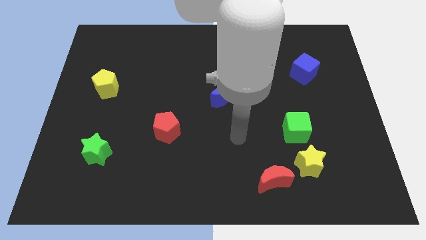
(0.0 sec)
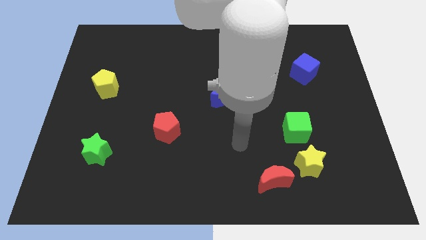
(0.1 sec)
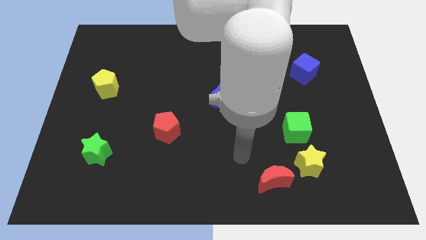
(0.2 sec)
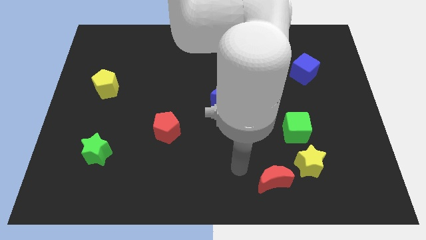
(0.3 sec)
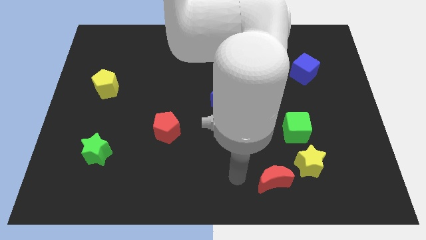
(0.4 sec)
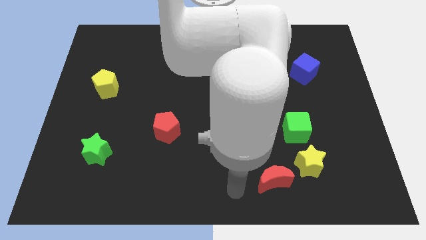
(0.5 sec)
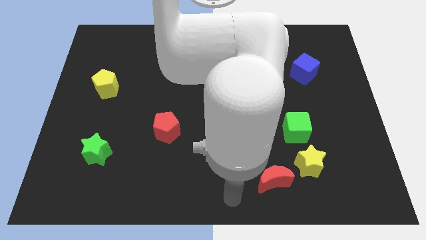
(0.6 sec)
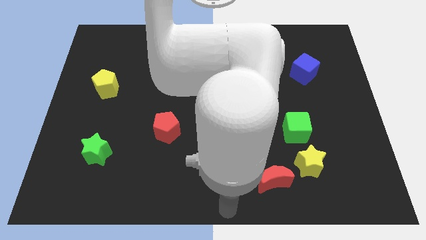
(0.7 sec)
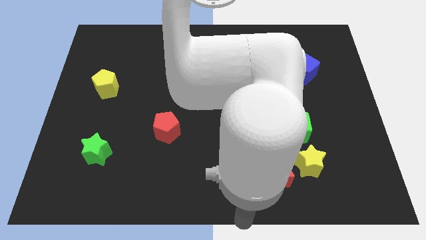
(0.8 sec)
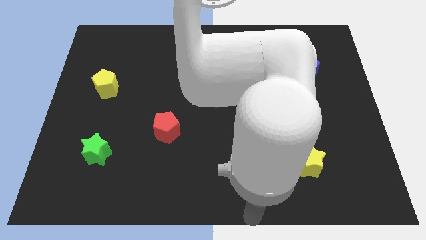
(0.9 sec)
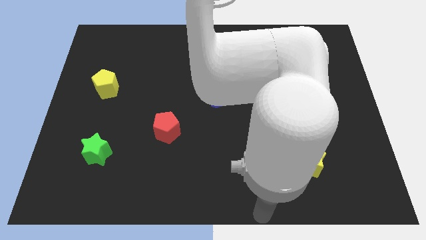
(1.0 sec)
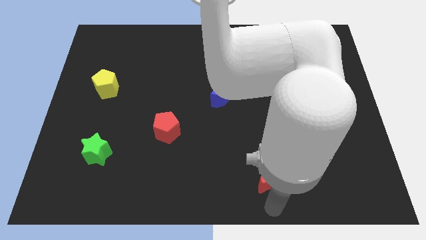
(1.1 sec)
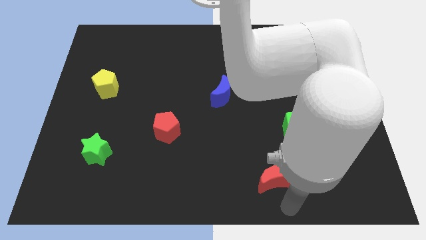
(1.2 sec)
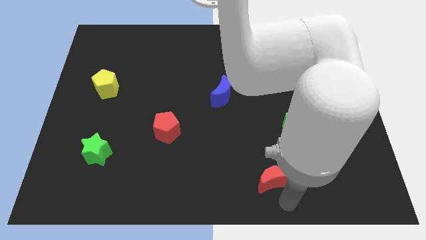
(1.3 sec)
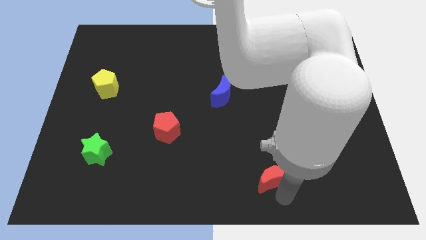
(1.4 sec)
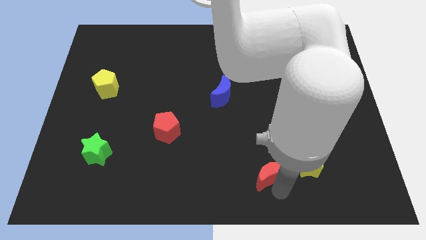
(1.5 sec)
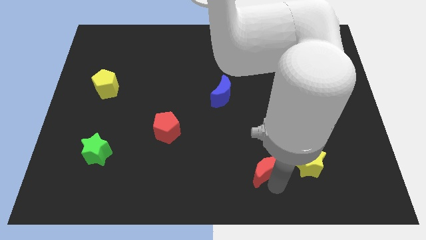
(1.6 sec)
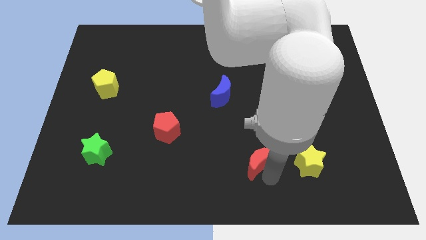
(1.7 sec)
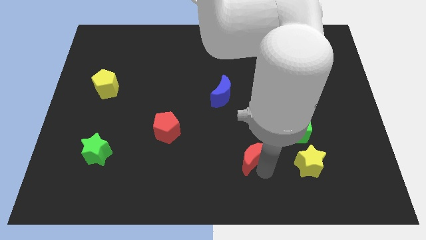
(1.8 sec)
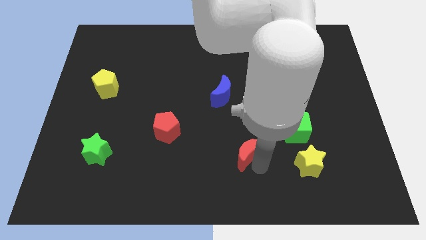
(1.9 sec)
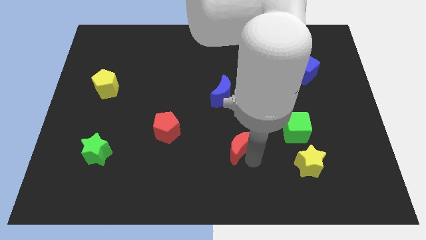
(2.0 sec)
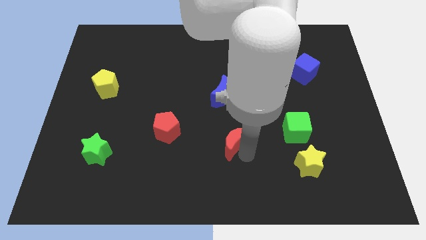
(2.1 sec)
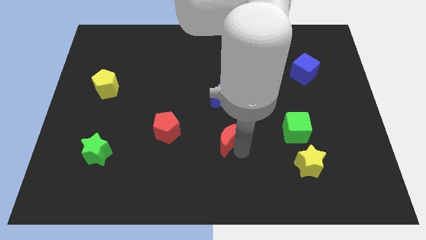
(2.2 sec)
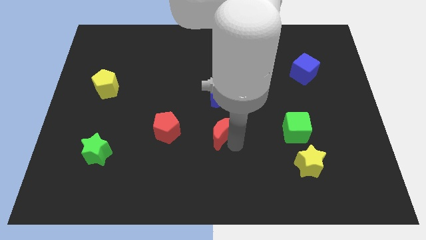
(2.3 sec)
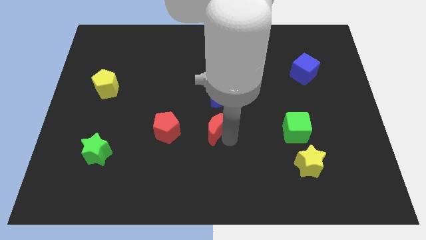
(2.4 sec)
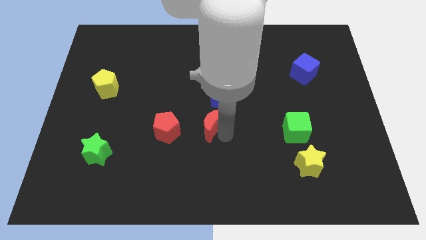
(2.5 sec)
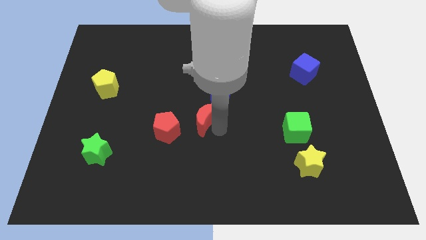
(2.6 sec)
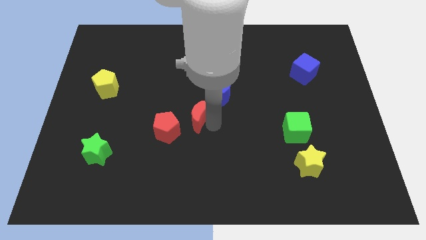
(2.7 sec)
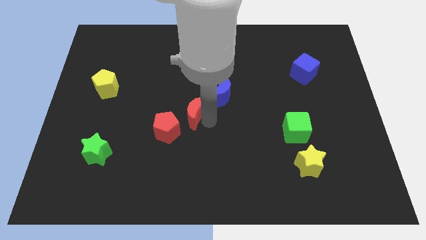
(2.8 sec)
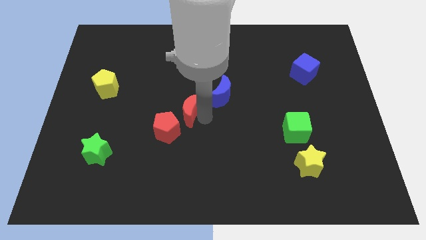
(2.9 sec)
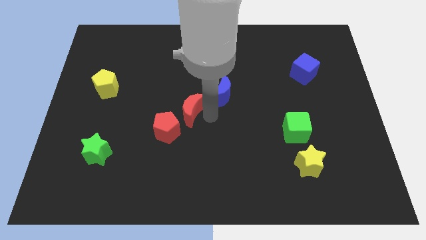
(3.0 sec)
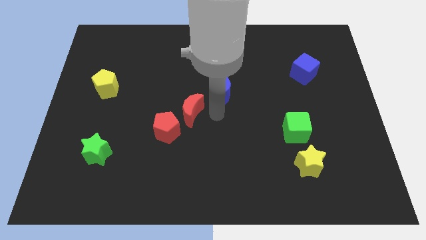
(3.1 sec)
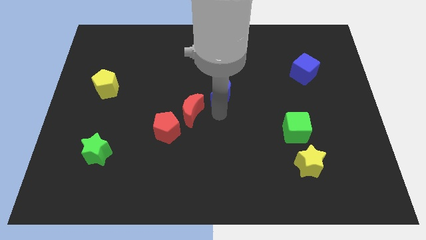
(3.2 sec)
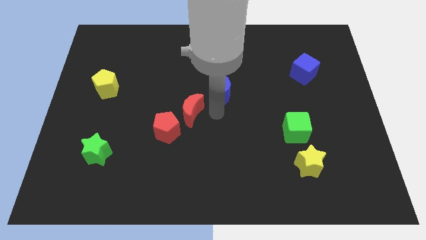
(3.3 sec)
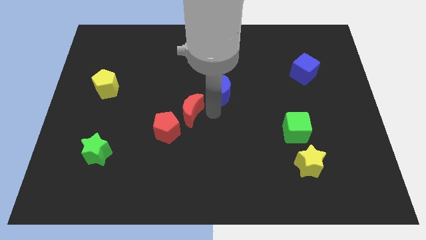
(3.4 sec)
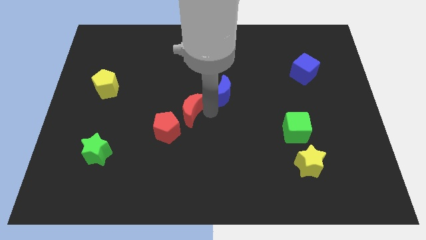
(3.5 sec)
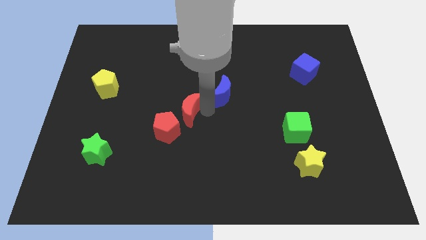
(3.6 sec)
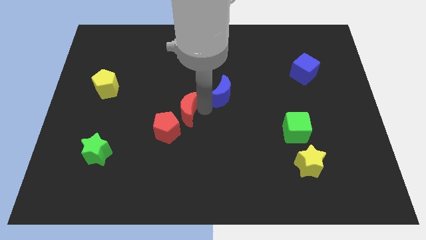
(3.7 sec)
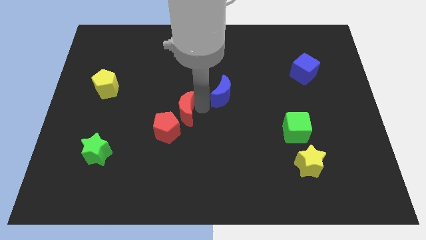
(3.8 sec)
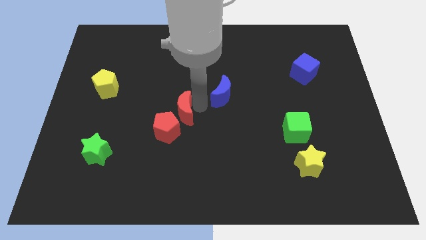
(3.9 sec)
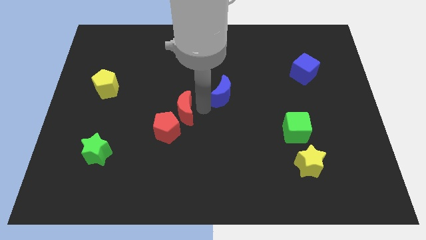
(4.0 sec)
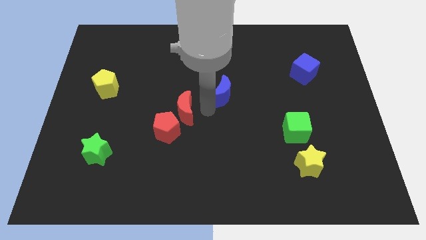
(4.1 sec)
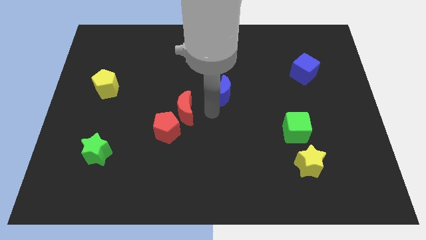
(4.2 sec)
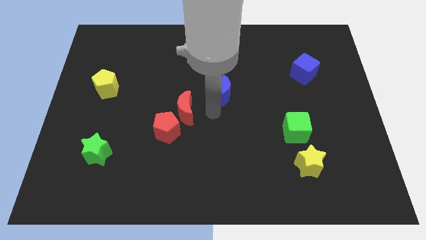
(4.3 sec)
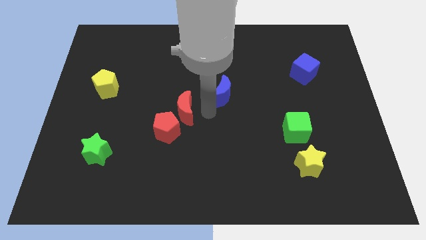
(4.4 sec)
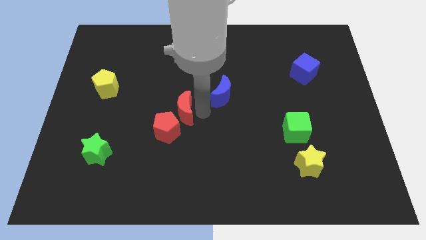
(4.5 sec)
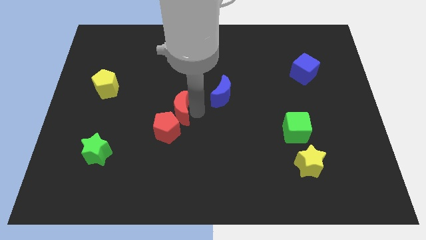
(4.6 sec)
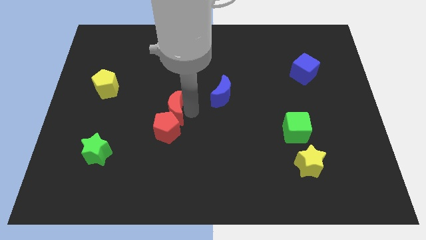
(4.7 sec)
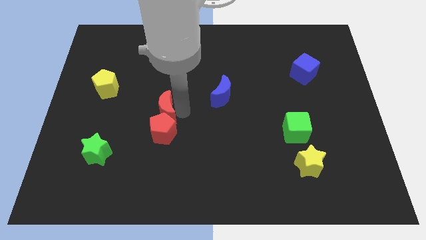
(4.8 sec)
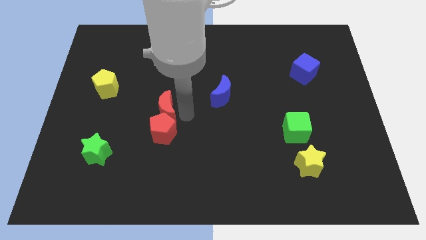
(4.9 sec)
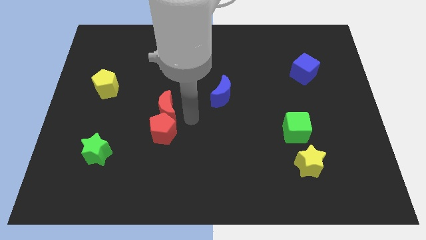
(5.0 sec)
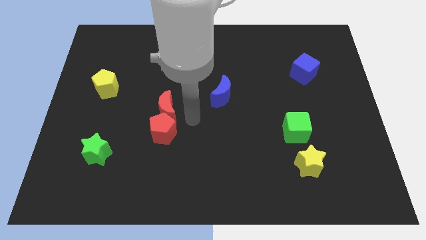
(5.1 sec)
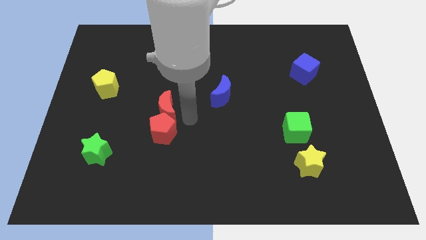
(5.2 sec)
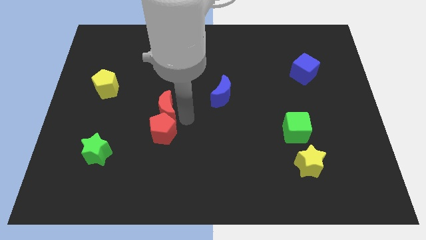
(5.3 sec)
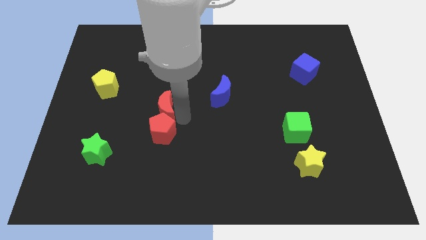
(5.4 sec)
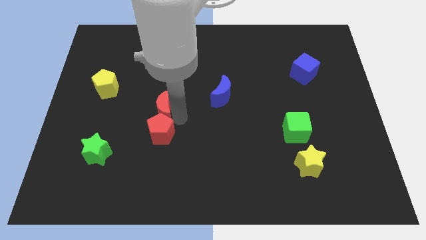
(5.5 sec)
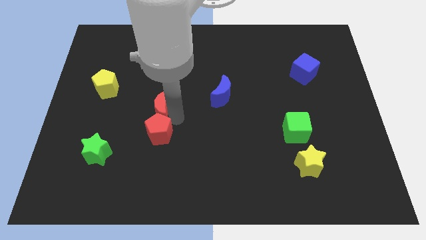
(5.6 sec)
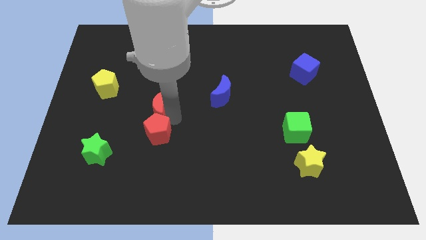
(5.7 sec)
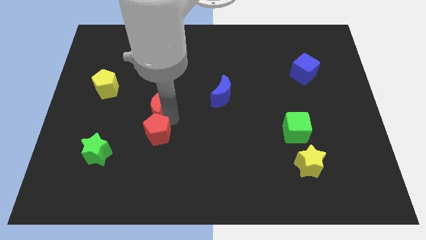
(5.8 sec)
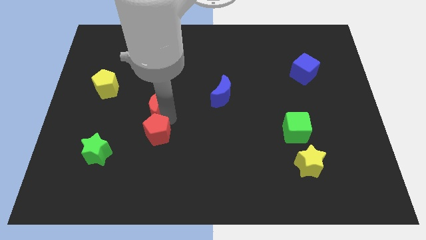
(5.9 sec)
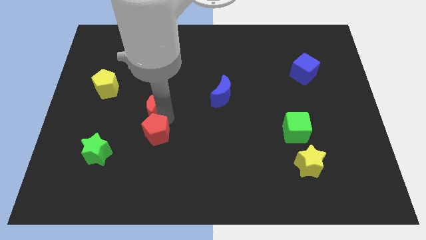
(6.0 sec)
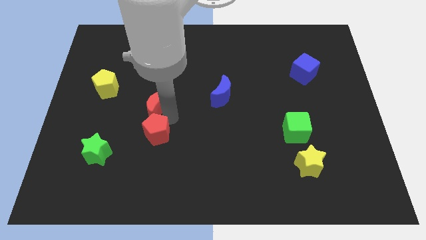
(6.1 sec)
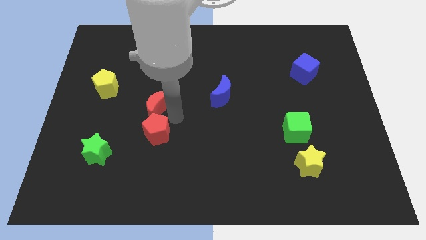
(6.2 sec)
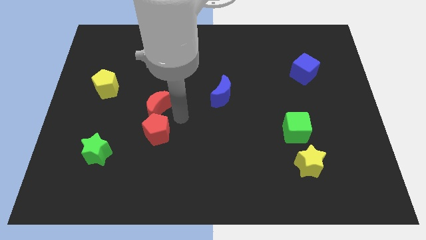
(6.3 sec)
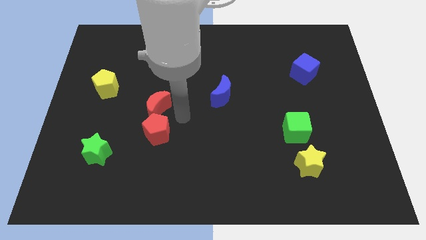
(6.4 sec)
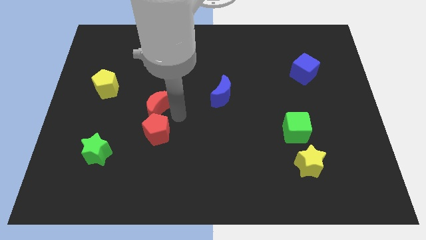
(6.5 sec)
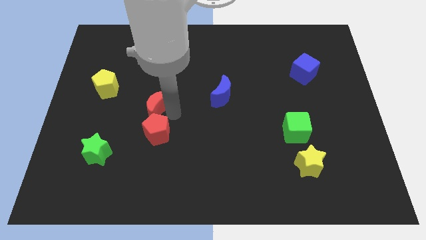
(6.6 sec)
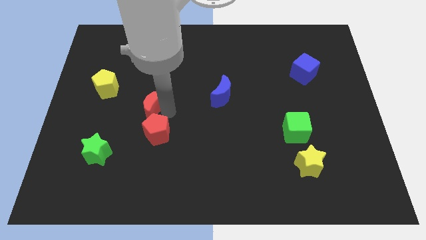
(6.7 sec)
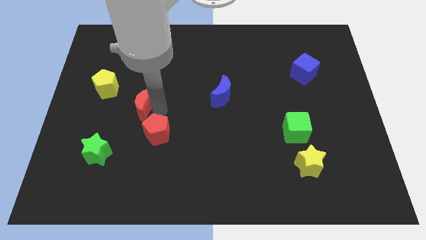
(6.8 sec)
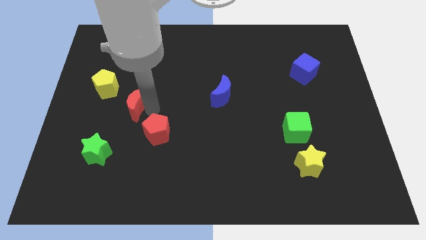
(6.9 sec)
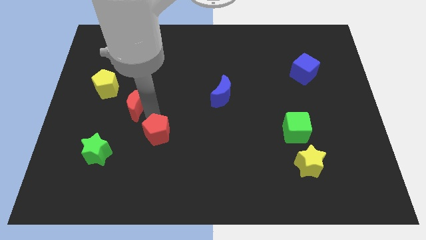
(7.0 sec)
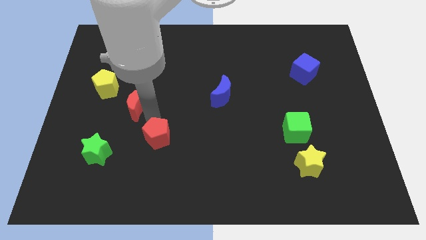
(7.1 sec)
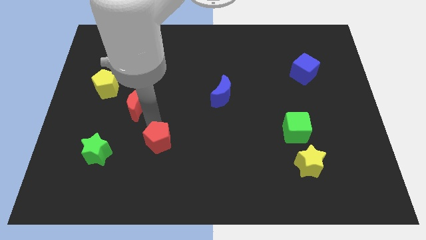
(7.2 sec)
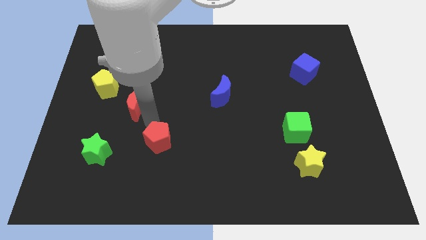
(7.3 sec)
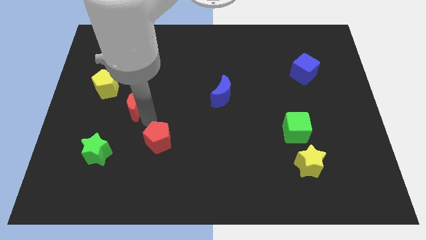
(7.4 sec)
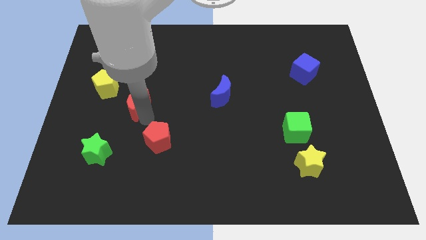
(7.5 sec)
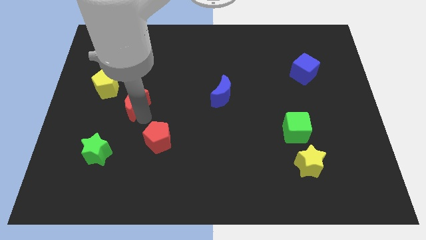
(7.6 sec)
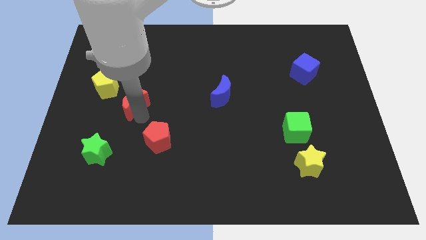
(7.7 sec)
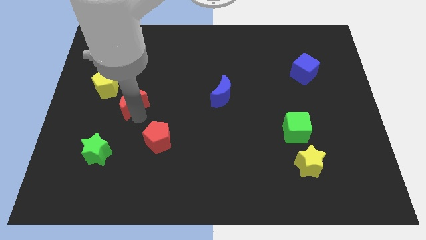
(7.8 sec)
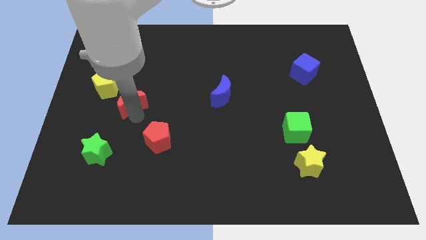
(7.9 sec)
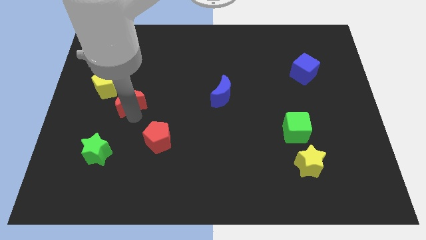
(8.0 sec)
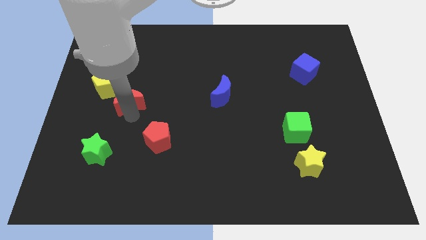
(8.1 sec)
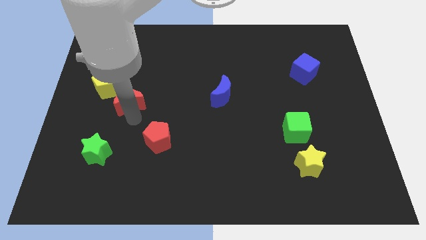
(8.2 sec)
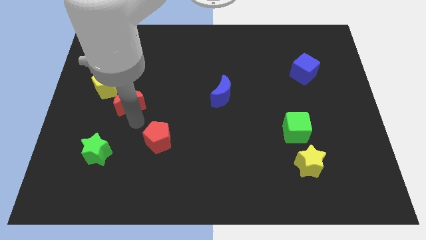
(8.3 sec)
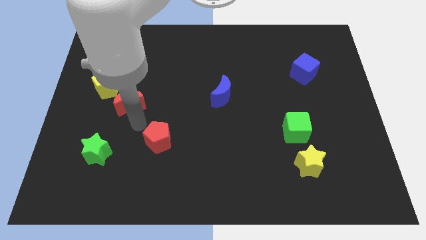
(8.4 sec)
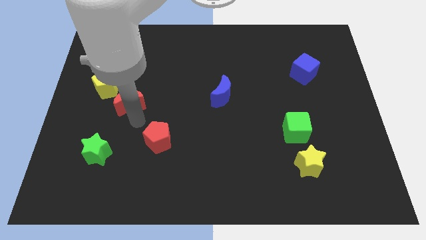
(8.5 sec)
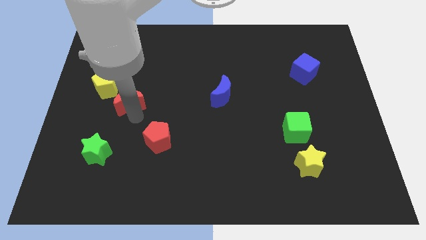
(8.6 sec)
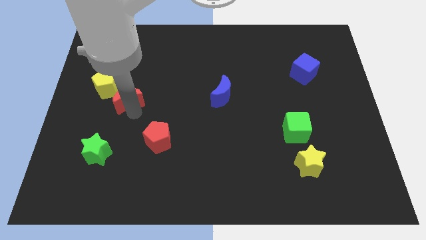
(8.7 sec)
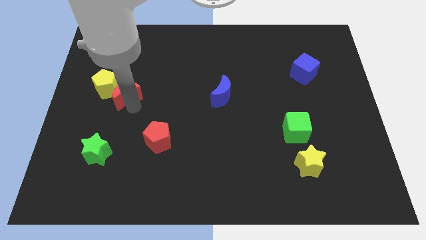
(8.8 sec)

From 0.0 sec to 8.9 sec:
slide the red moon next to the yellow pentagon
